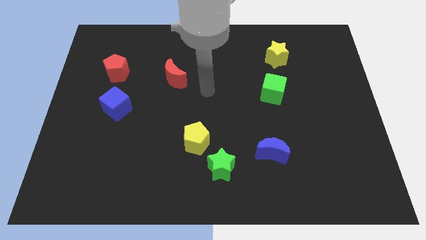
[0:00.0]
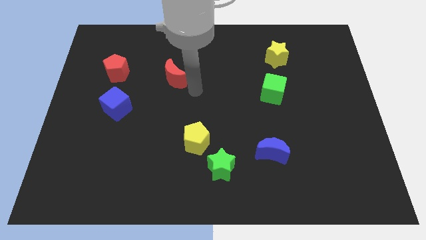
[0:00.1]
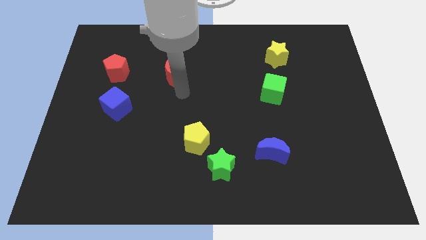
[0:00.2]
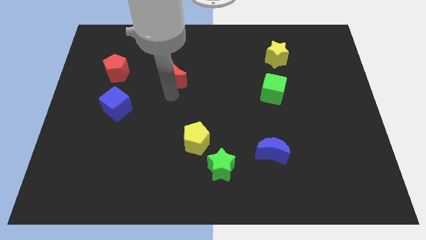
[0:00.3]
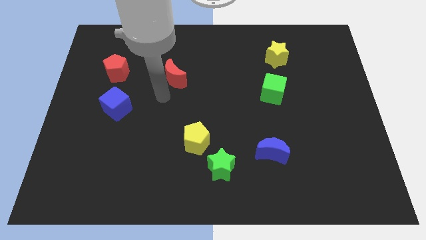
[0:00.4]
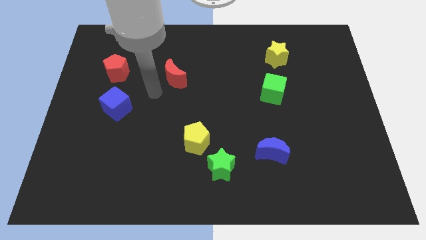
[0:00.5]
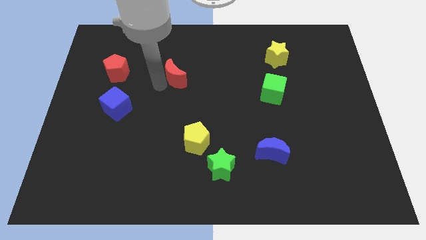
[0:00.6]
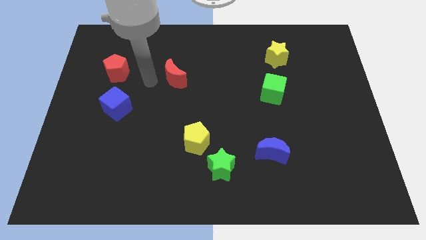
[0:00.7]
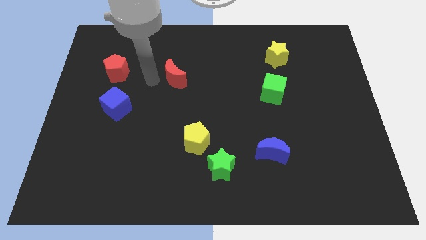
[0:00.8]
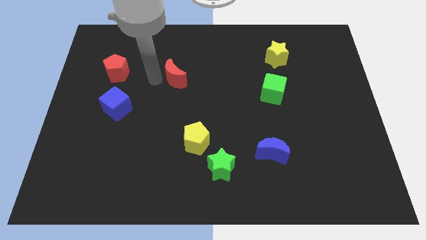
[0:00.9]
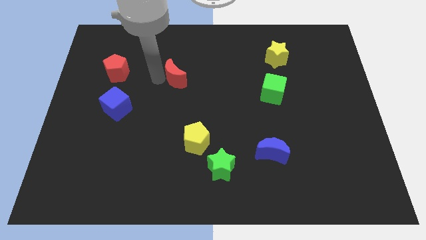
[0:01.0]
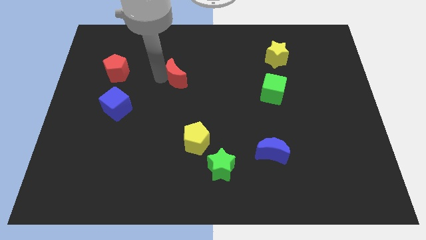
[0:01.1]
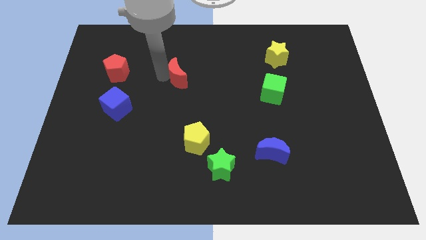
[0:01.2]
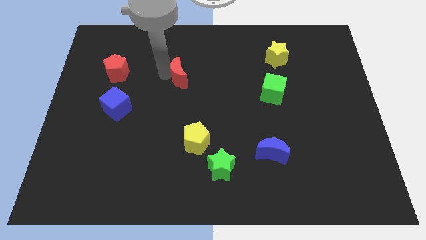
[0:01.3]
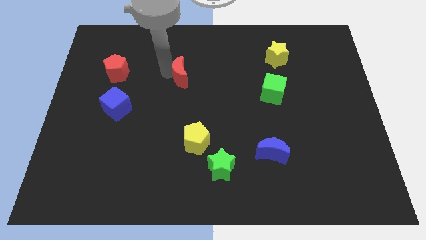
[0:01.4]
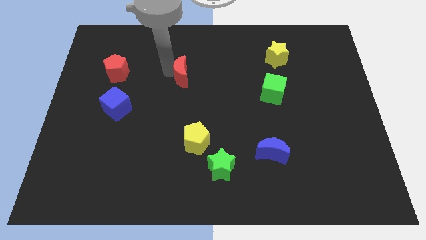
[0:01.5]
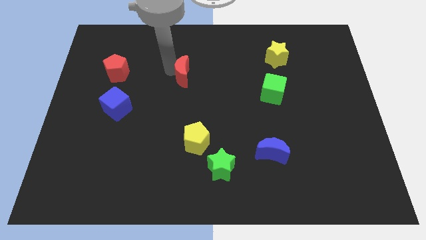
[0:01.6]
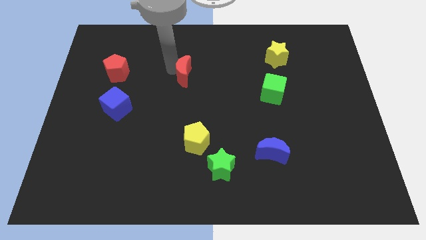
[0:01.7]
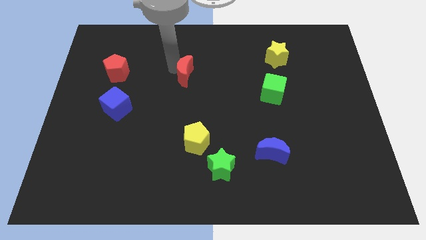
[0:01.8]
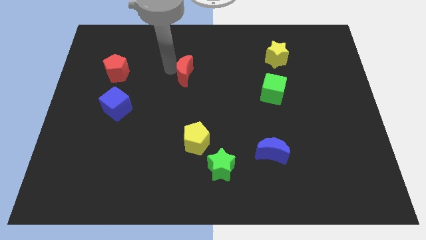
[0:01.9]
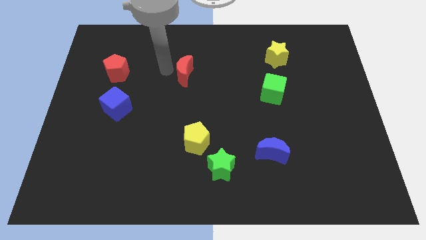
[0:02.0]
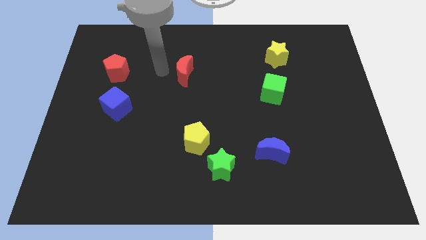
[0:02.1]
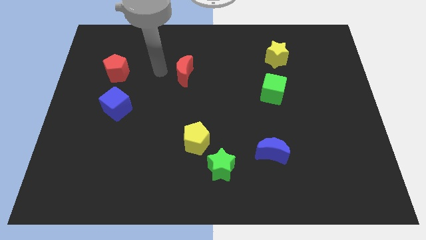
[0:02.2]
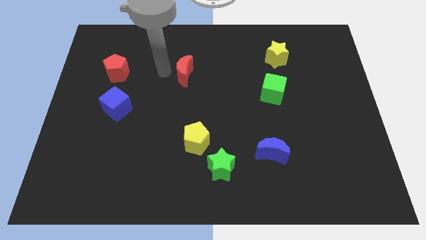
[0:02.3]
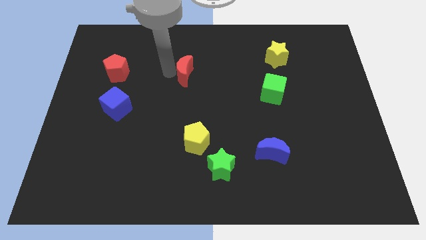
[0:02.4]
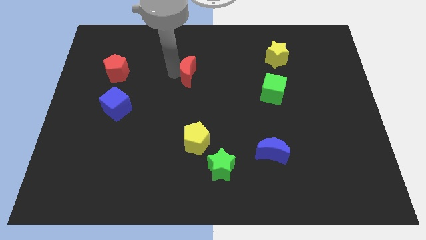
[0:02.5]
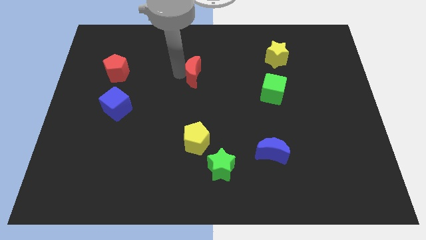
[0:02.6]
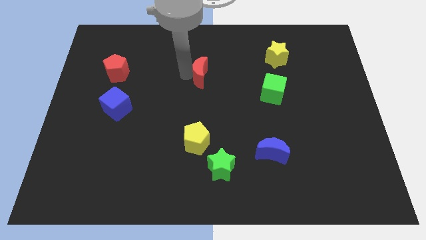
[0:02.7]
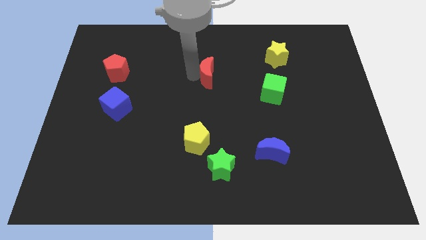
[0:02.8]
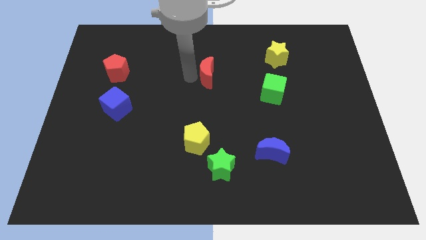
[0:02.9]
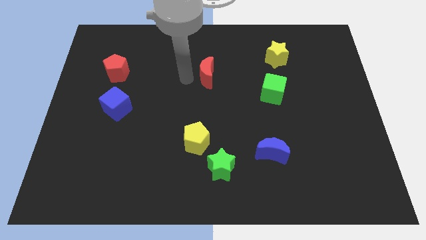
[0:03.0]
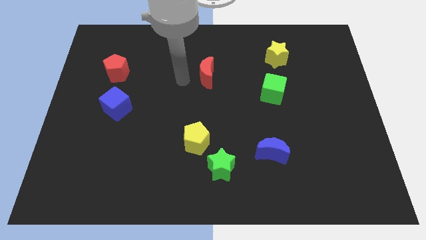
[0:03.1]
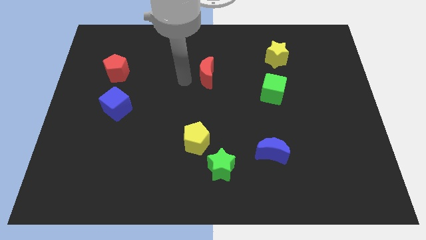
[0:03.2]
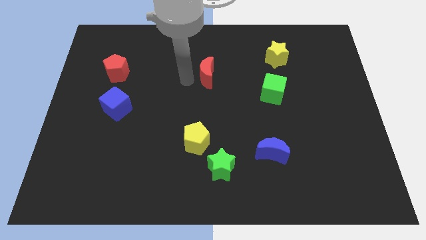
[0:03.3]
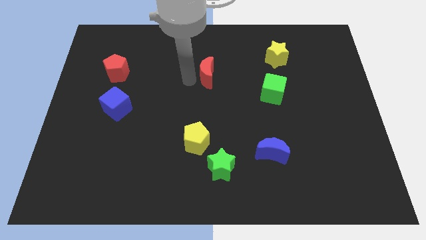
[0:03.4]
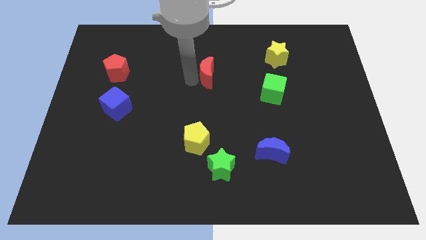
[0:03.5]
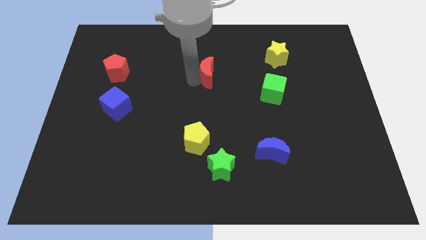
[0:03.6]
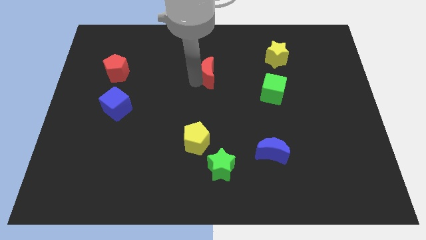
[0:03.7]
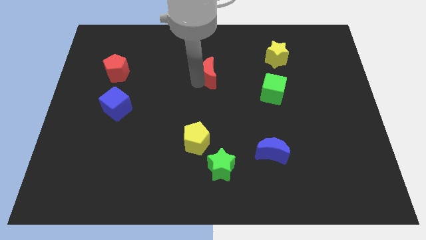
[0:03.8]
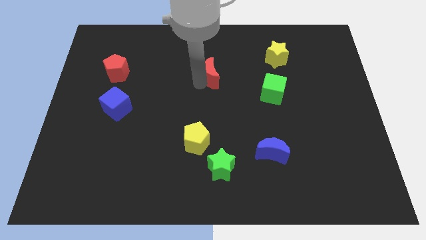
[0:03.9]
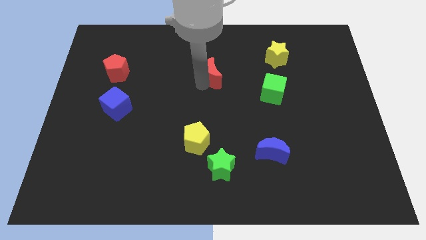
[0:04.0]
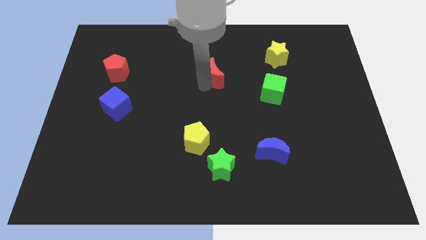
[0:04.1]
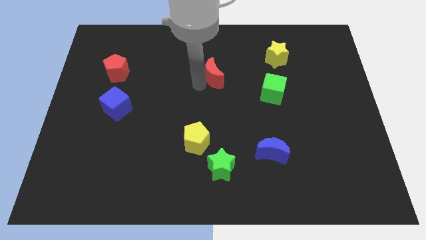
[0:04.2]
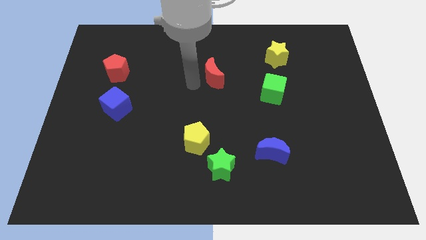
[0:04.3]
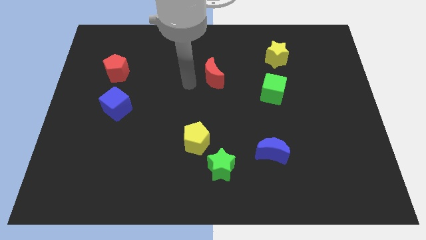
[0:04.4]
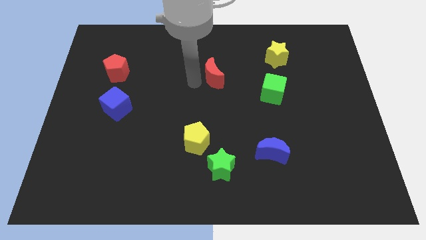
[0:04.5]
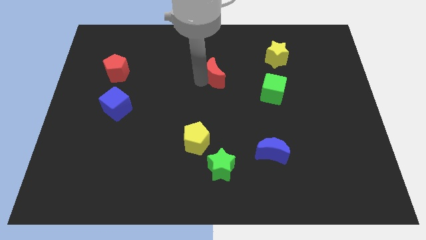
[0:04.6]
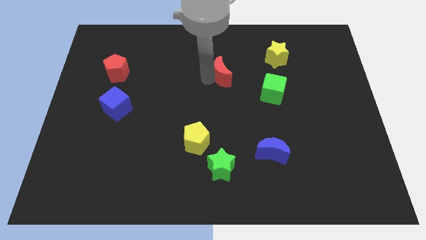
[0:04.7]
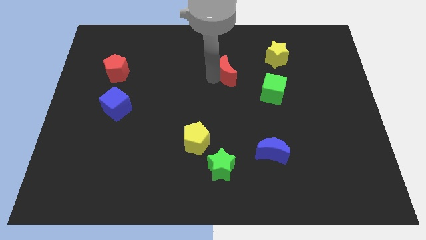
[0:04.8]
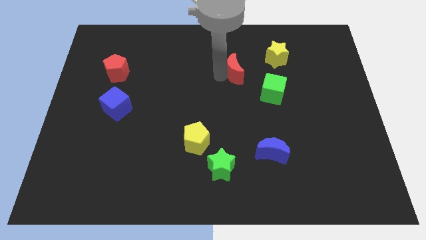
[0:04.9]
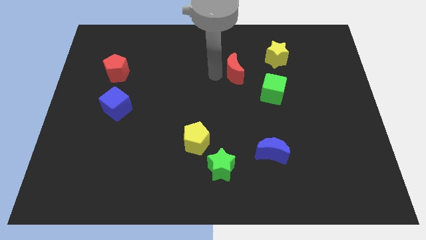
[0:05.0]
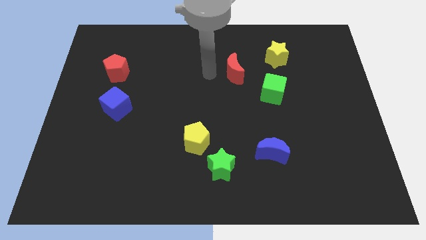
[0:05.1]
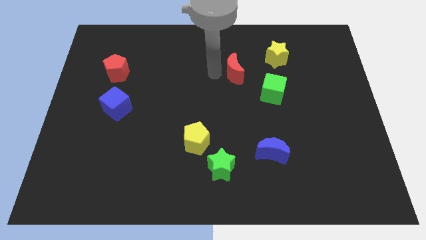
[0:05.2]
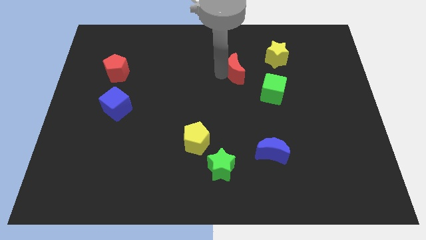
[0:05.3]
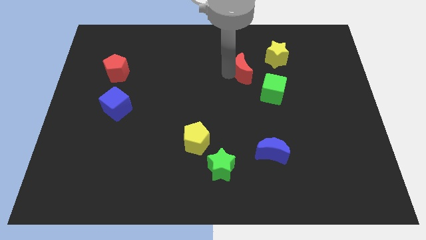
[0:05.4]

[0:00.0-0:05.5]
move the red moon to the bottom left of the yellow star

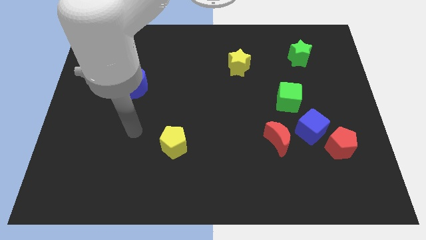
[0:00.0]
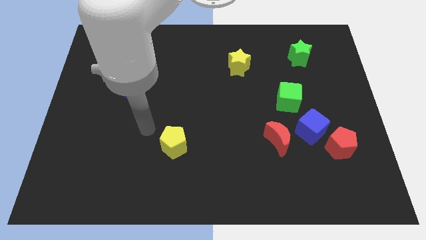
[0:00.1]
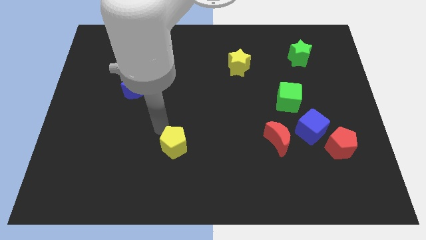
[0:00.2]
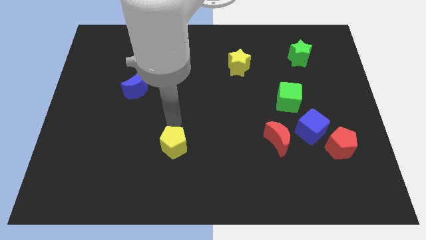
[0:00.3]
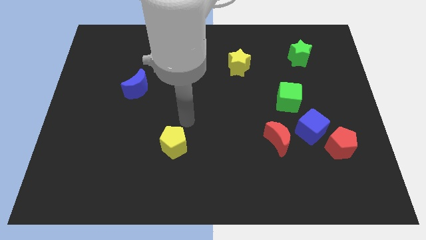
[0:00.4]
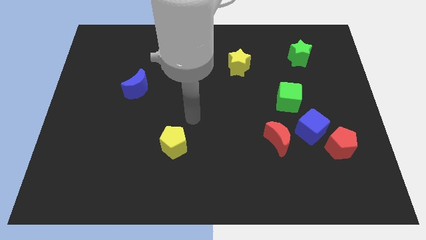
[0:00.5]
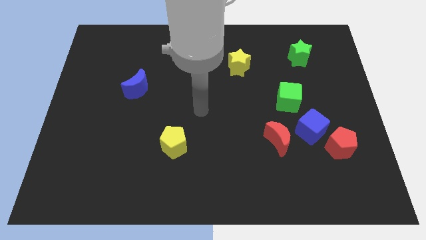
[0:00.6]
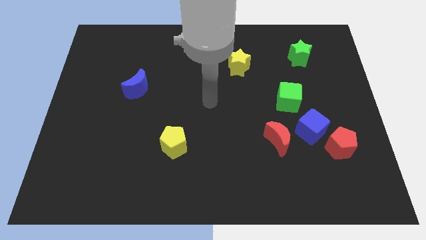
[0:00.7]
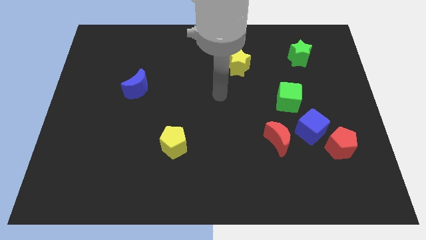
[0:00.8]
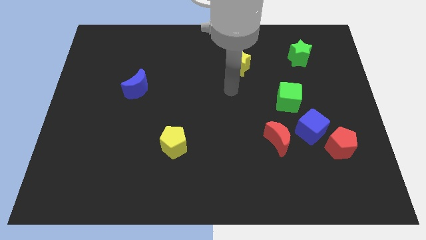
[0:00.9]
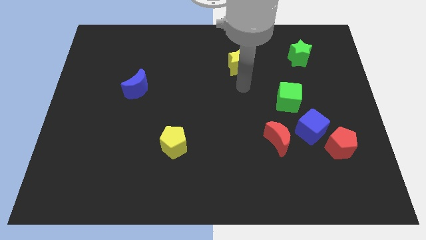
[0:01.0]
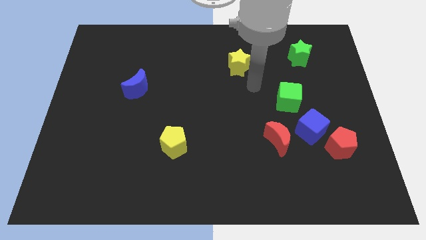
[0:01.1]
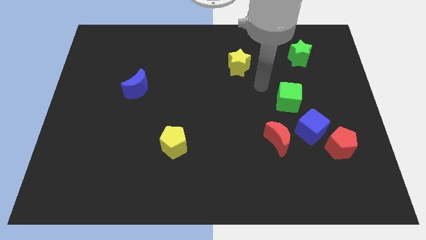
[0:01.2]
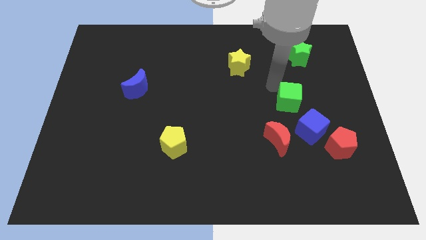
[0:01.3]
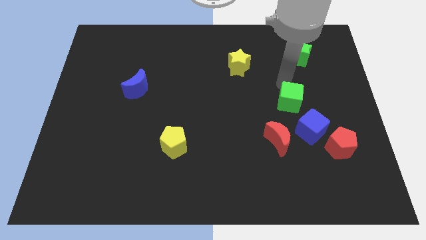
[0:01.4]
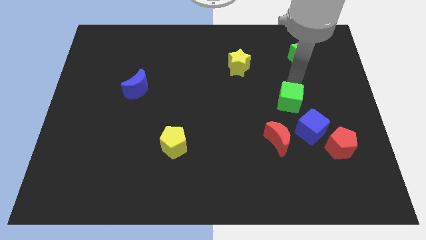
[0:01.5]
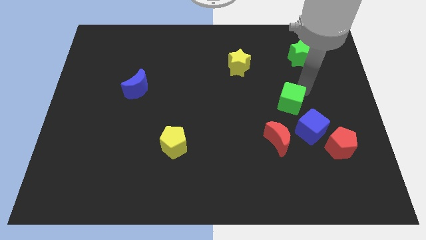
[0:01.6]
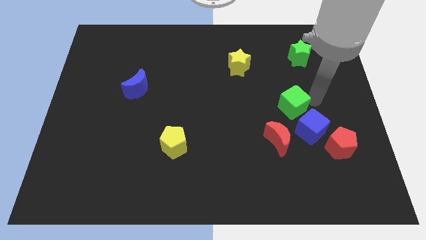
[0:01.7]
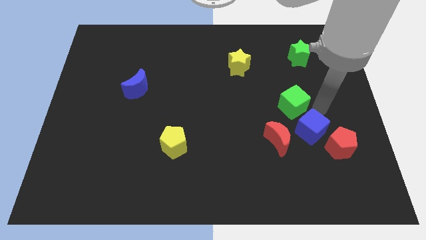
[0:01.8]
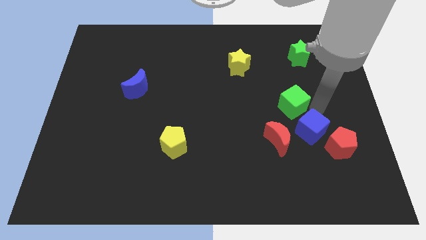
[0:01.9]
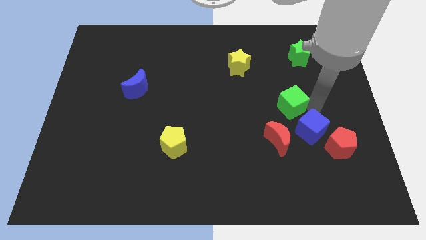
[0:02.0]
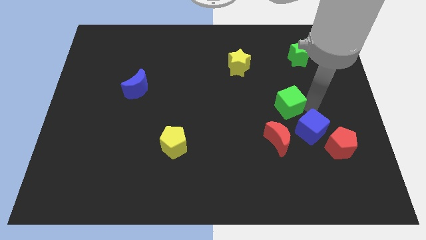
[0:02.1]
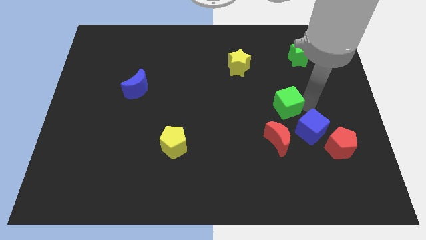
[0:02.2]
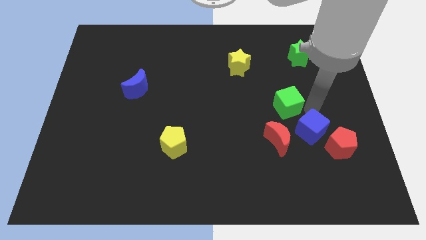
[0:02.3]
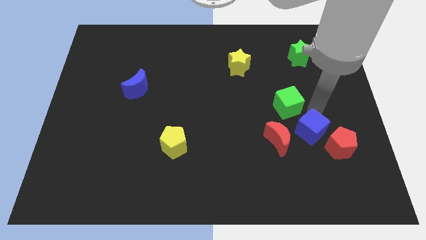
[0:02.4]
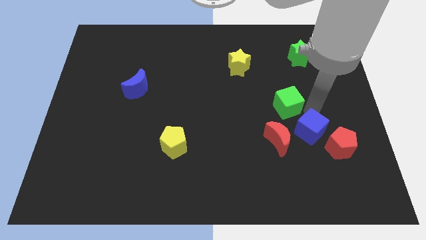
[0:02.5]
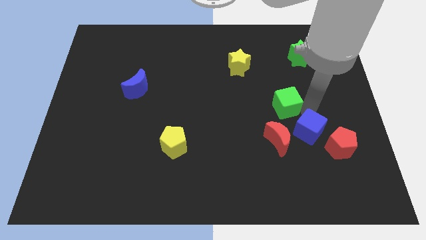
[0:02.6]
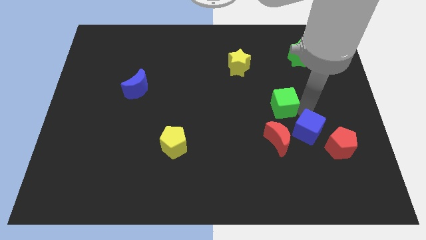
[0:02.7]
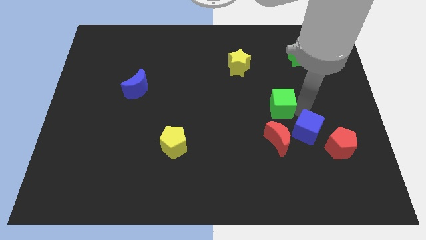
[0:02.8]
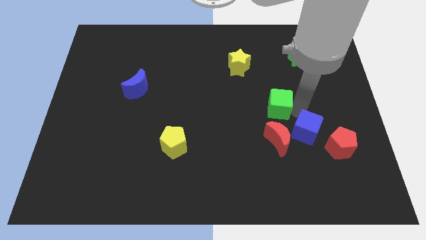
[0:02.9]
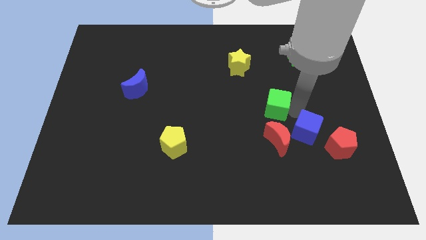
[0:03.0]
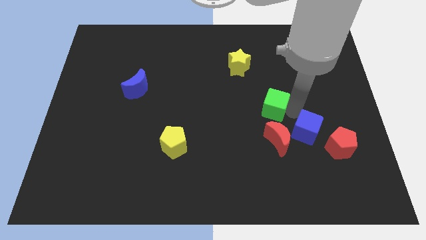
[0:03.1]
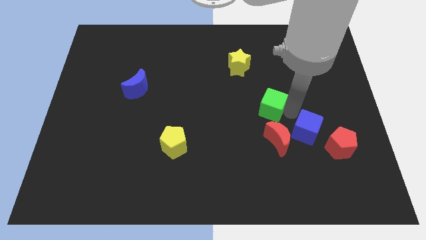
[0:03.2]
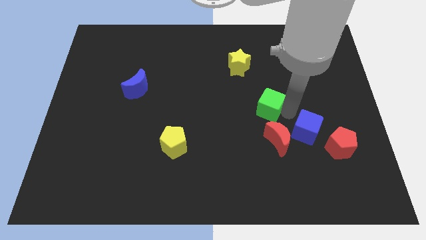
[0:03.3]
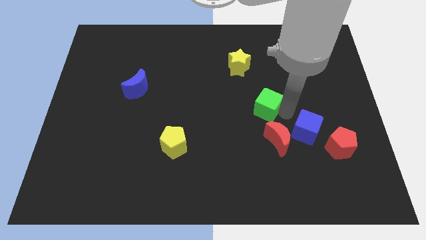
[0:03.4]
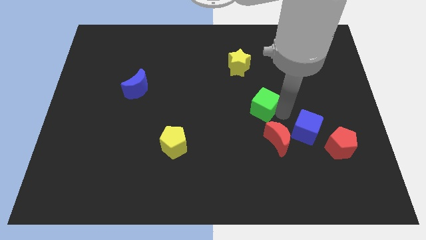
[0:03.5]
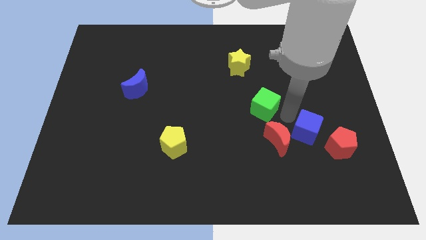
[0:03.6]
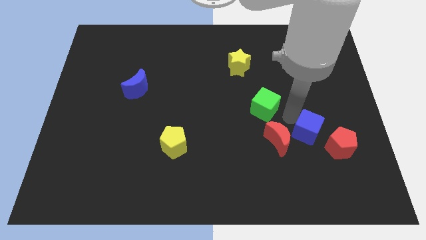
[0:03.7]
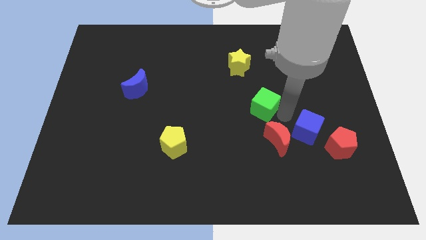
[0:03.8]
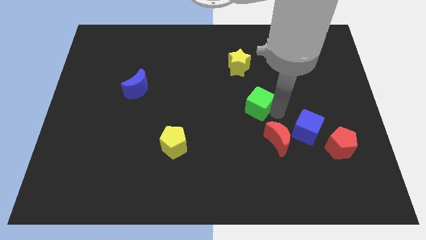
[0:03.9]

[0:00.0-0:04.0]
slide the green cube to the bottom of the yellow star
